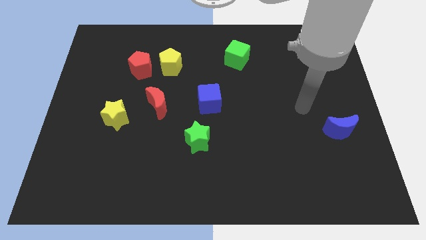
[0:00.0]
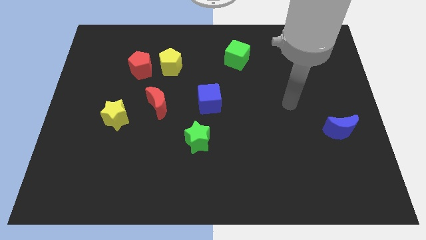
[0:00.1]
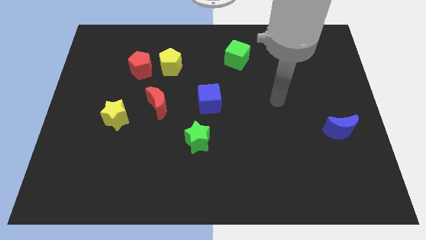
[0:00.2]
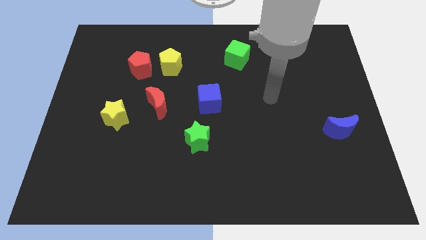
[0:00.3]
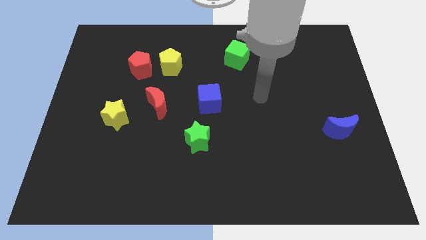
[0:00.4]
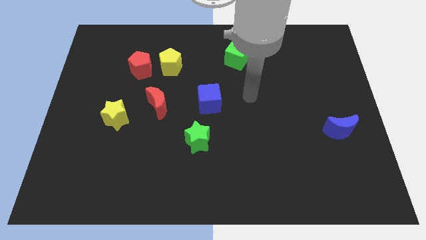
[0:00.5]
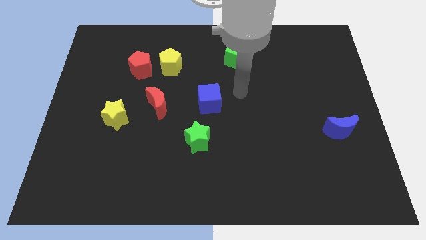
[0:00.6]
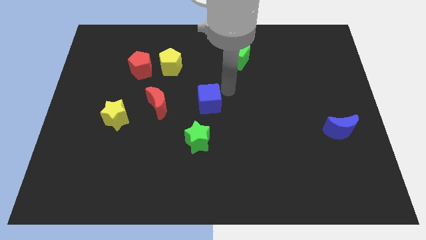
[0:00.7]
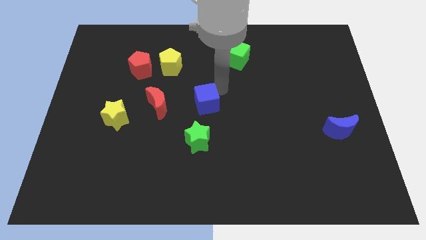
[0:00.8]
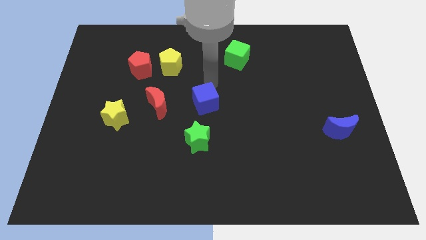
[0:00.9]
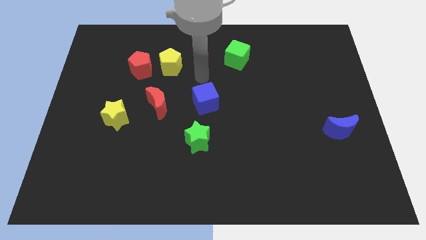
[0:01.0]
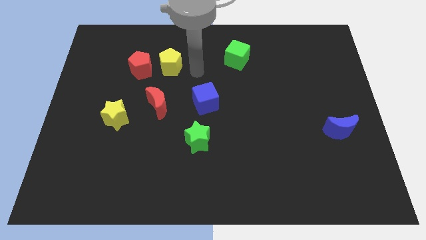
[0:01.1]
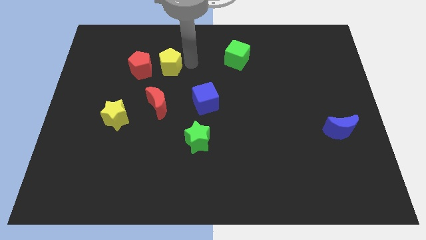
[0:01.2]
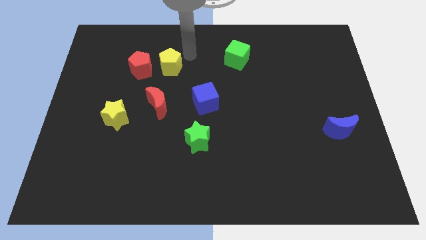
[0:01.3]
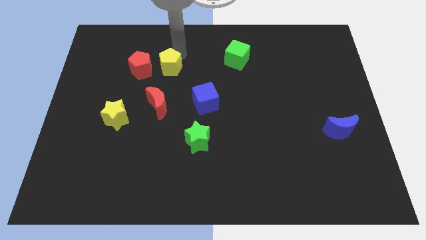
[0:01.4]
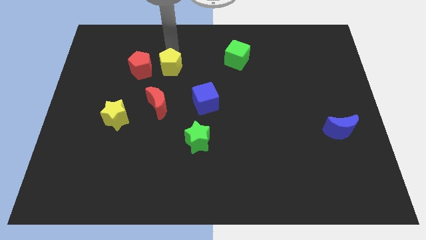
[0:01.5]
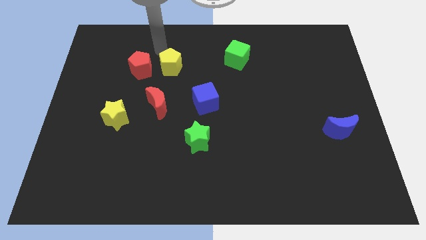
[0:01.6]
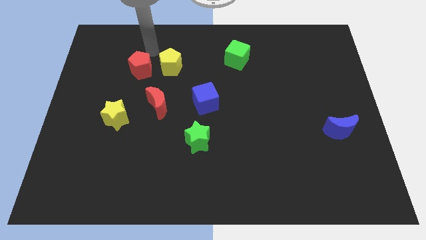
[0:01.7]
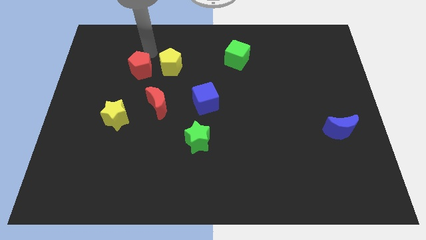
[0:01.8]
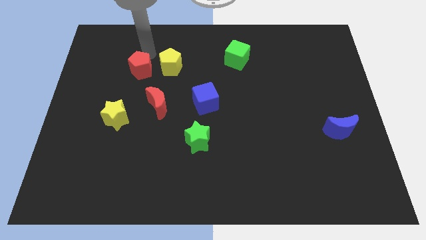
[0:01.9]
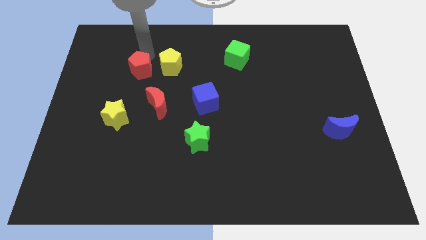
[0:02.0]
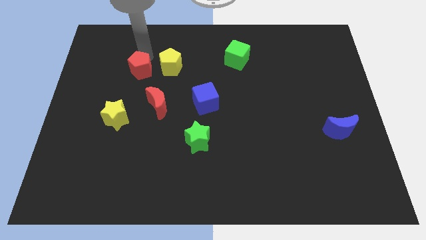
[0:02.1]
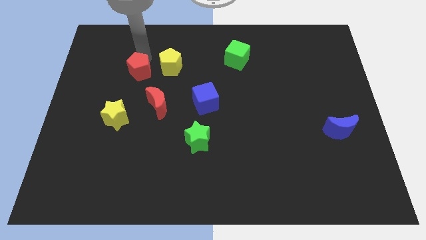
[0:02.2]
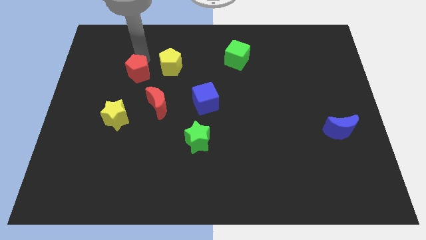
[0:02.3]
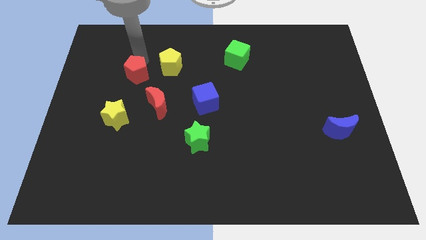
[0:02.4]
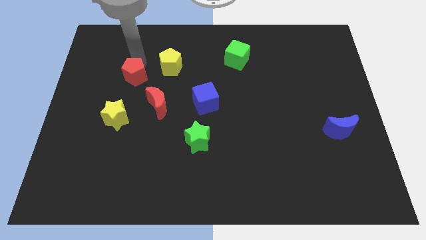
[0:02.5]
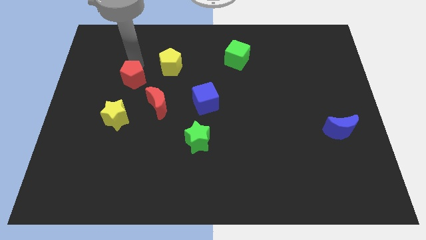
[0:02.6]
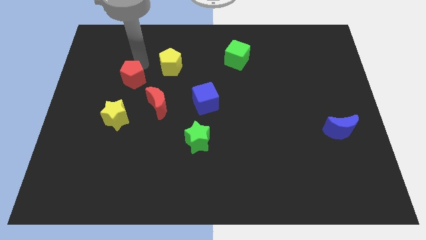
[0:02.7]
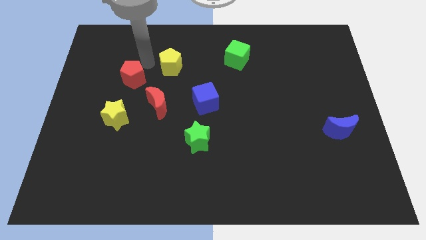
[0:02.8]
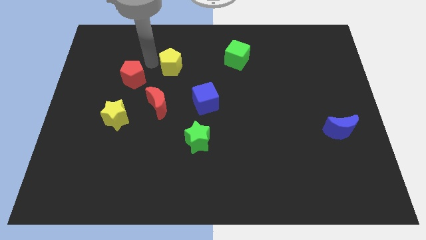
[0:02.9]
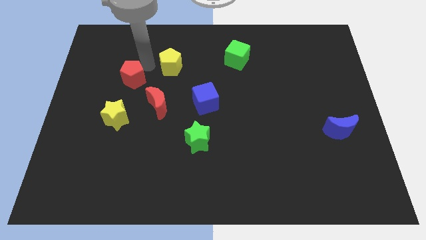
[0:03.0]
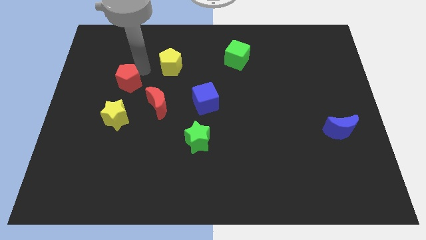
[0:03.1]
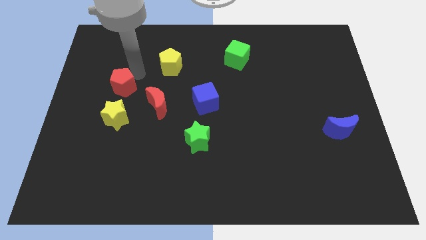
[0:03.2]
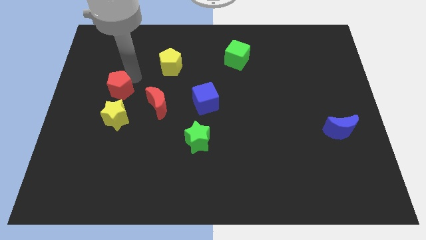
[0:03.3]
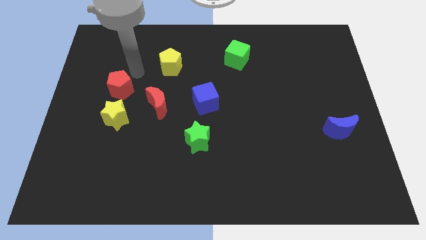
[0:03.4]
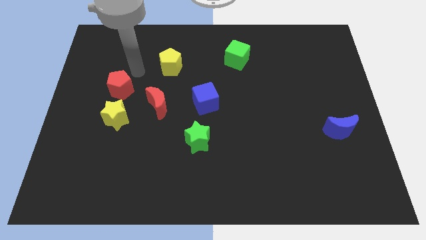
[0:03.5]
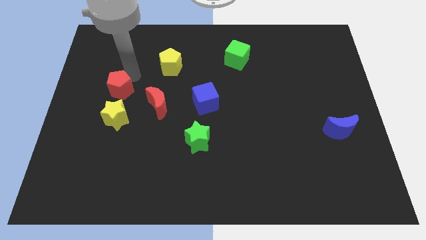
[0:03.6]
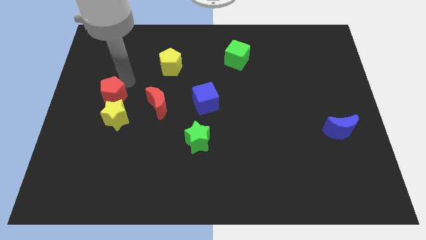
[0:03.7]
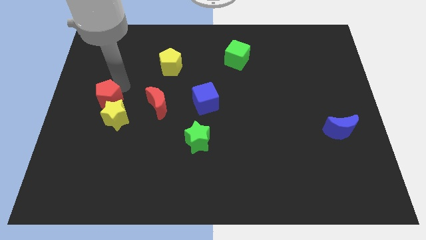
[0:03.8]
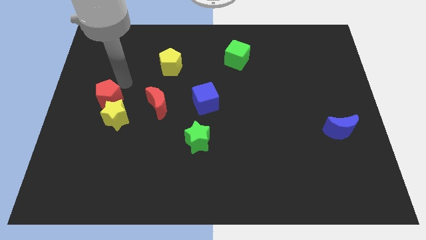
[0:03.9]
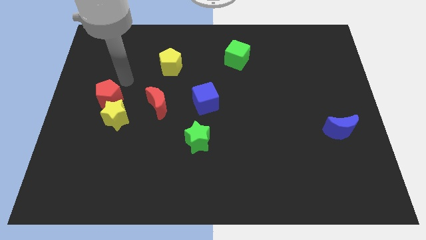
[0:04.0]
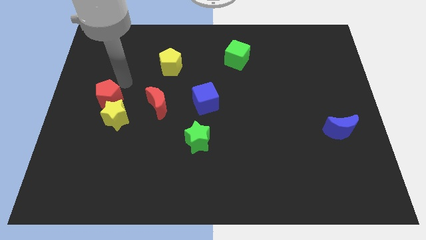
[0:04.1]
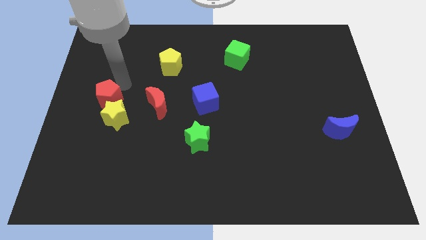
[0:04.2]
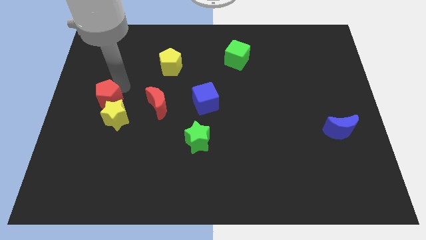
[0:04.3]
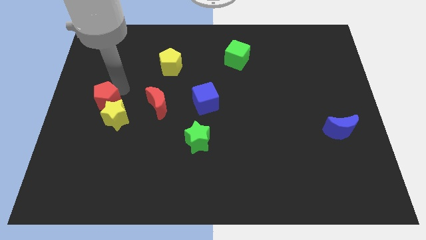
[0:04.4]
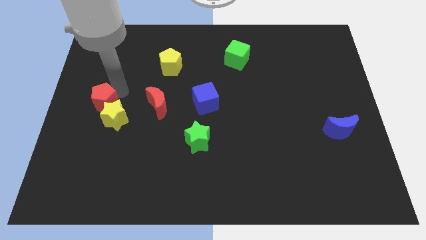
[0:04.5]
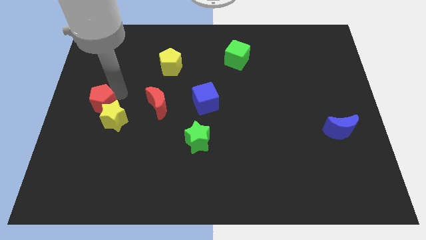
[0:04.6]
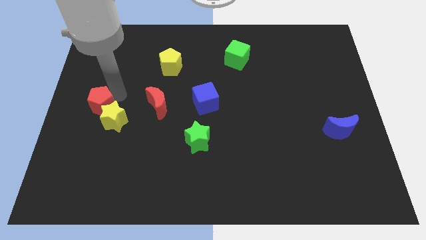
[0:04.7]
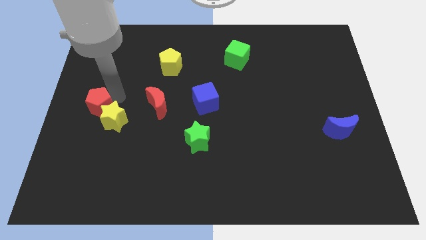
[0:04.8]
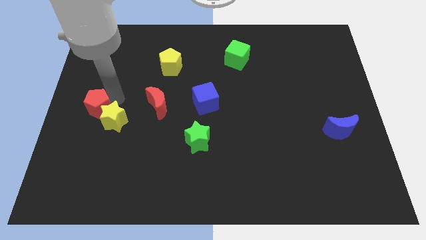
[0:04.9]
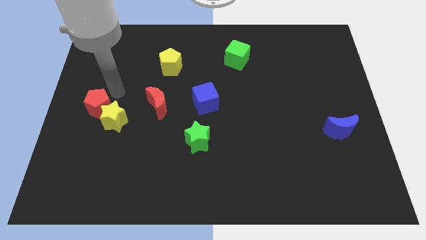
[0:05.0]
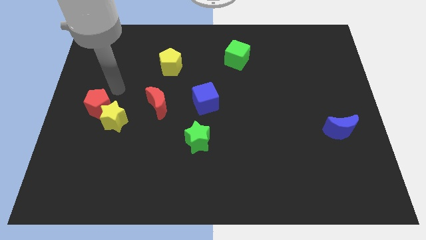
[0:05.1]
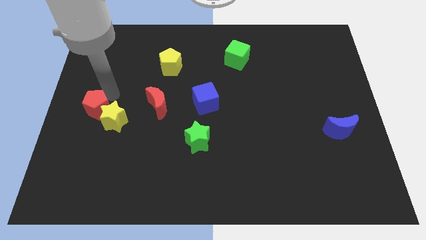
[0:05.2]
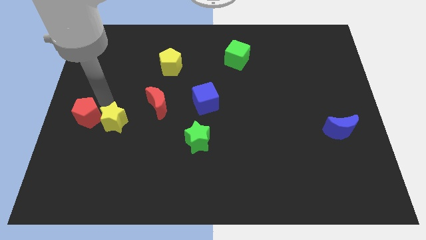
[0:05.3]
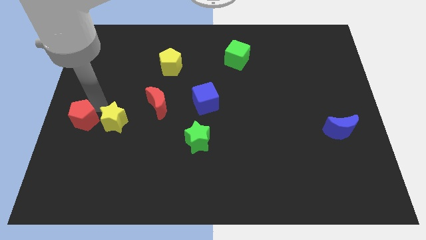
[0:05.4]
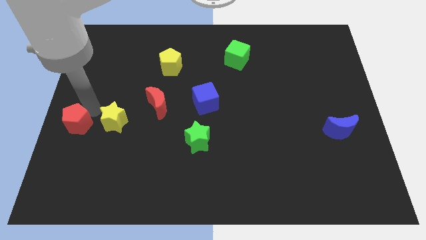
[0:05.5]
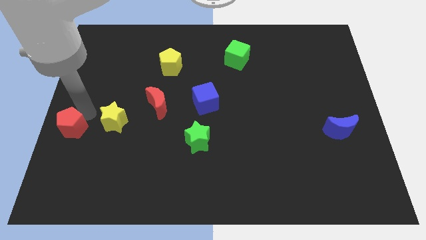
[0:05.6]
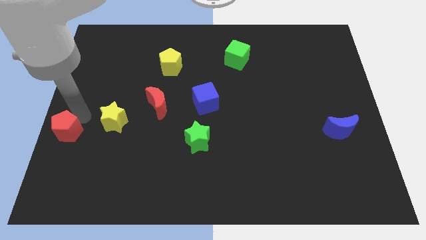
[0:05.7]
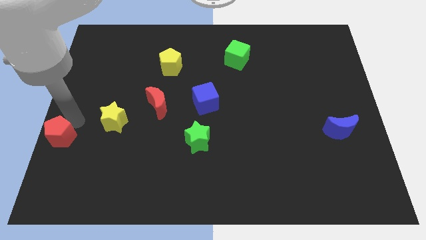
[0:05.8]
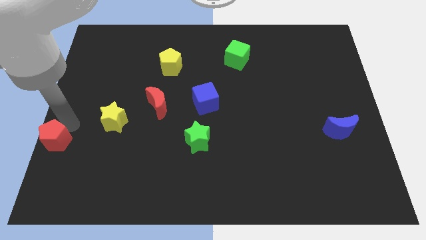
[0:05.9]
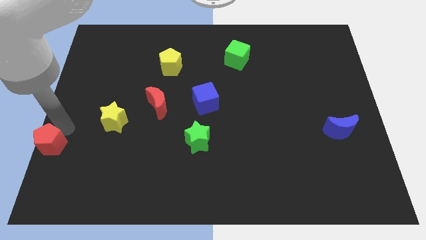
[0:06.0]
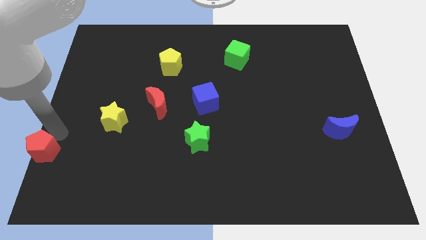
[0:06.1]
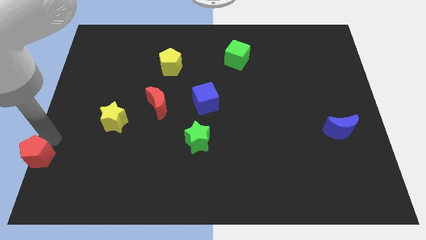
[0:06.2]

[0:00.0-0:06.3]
push the red pentagon to the bottom left

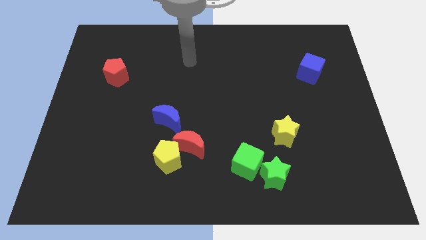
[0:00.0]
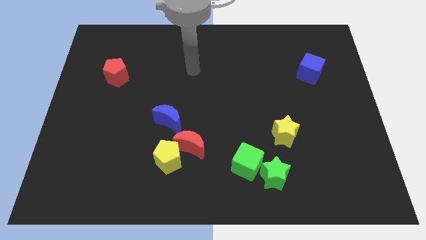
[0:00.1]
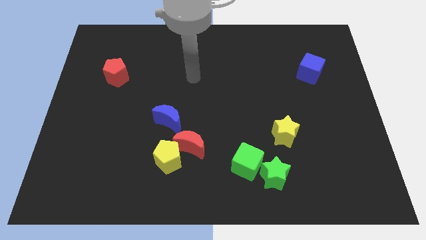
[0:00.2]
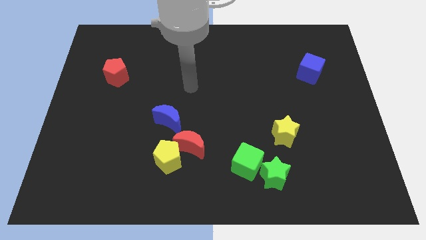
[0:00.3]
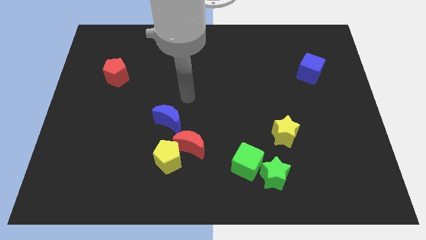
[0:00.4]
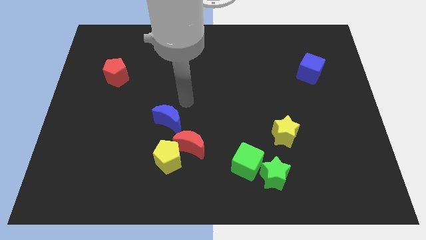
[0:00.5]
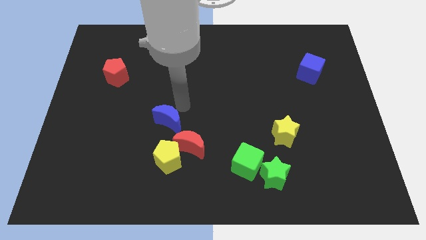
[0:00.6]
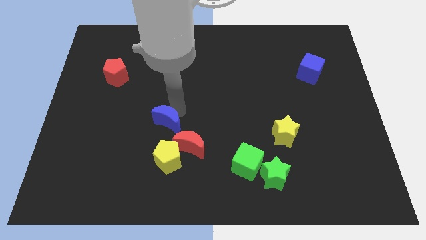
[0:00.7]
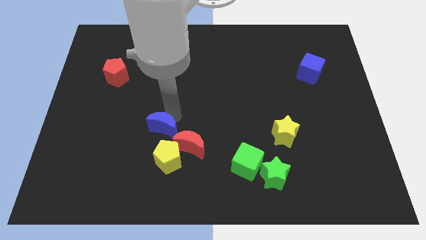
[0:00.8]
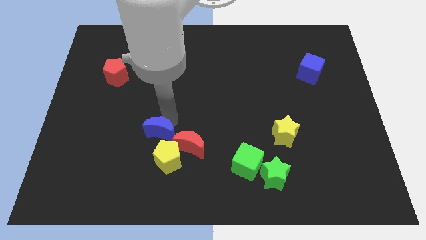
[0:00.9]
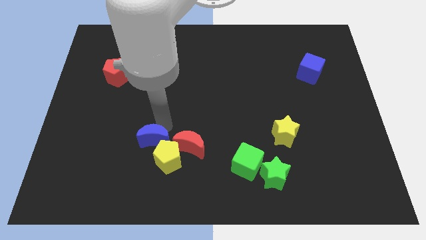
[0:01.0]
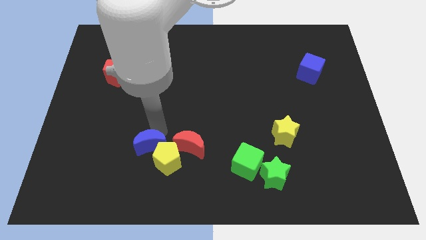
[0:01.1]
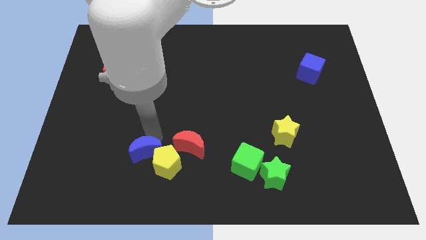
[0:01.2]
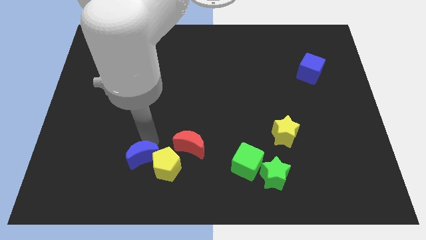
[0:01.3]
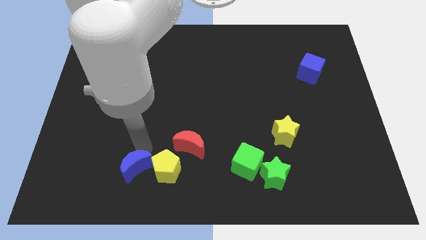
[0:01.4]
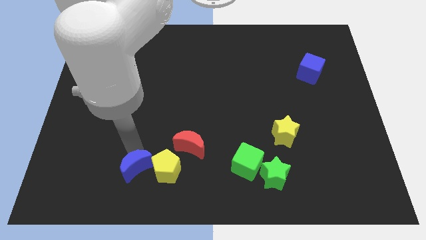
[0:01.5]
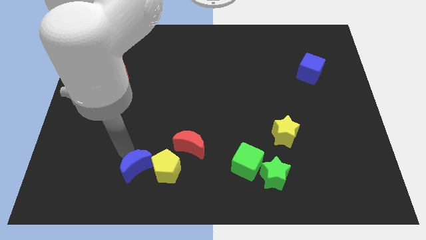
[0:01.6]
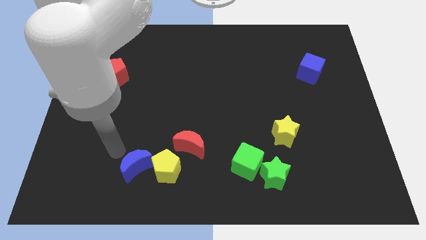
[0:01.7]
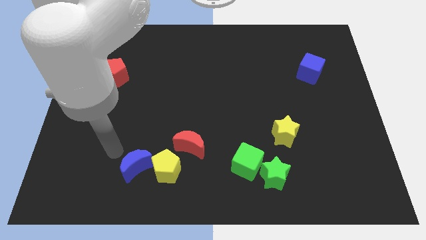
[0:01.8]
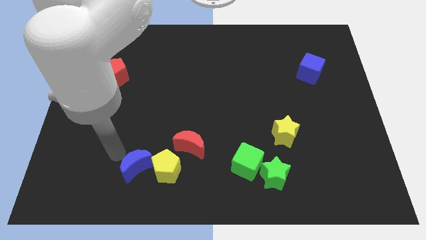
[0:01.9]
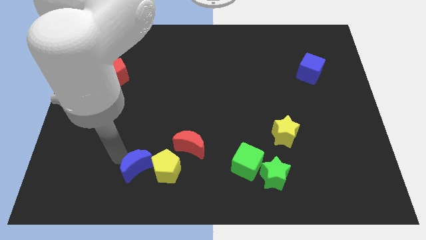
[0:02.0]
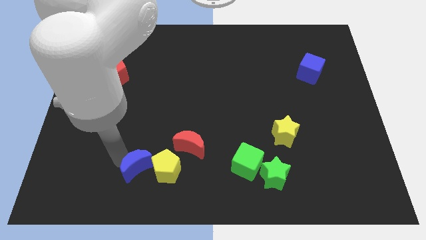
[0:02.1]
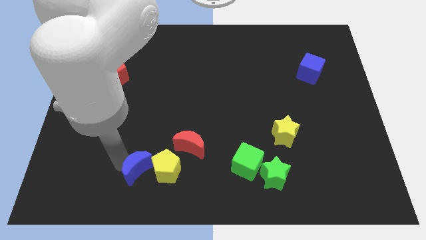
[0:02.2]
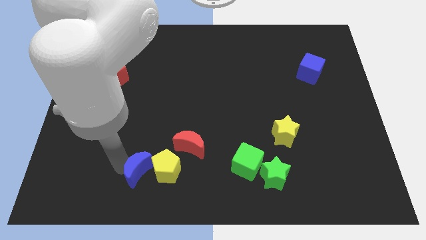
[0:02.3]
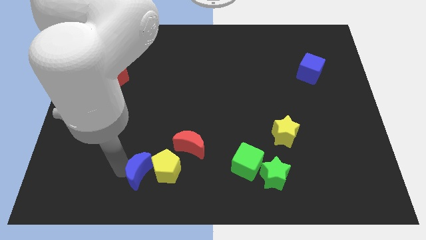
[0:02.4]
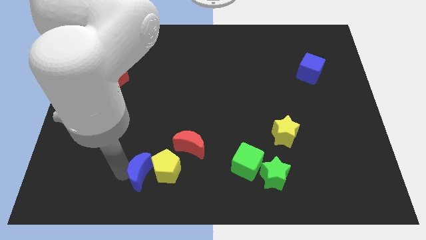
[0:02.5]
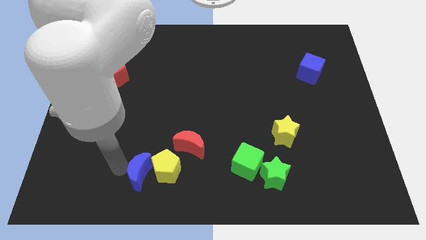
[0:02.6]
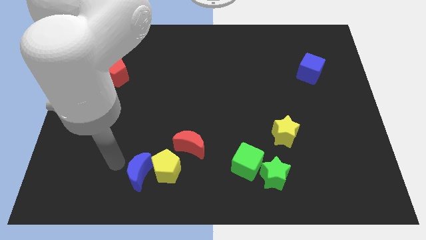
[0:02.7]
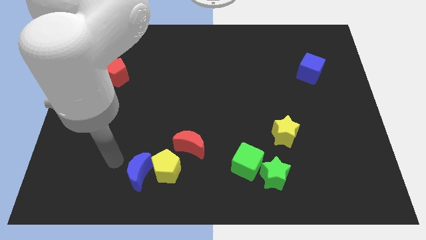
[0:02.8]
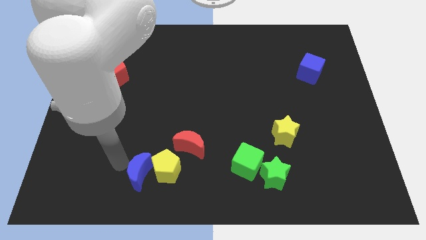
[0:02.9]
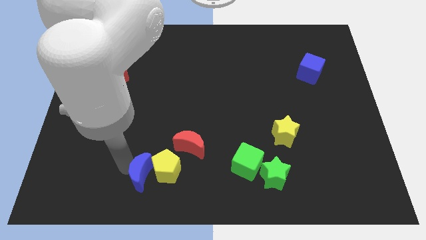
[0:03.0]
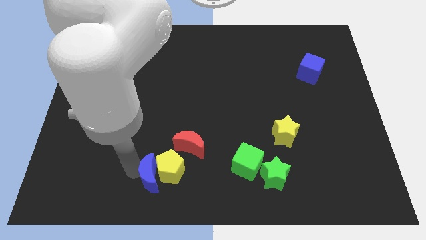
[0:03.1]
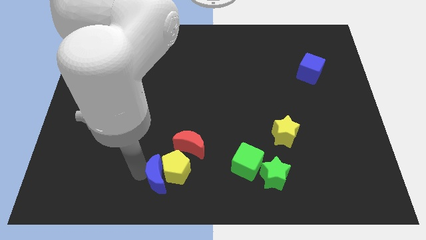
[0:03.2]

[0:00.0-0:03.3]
push the blue moon to the bottom side
